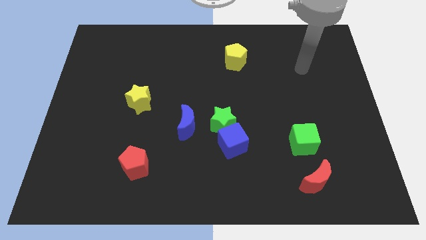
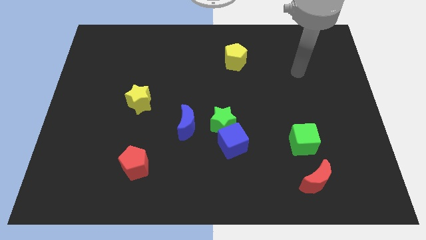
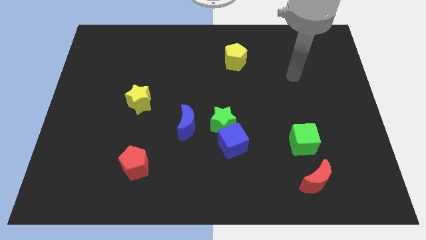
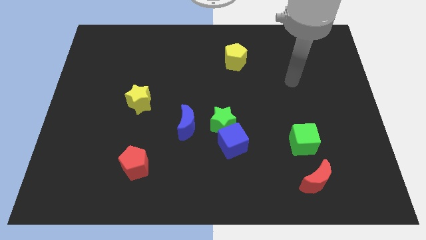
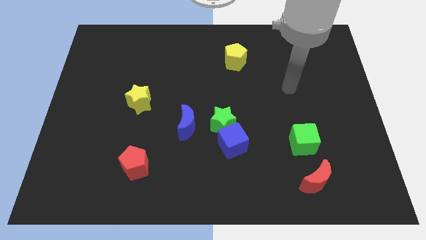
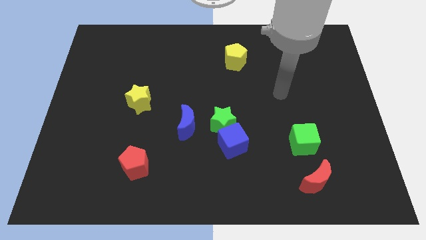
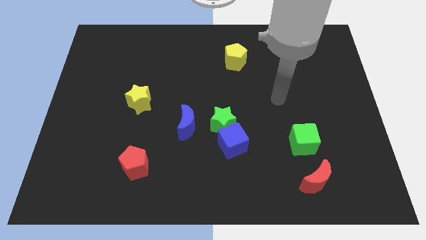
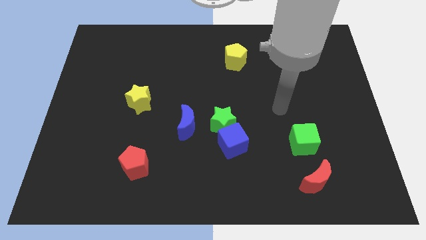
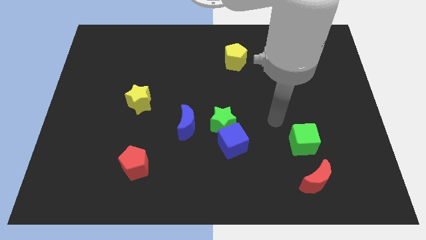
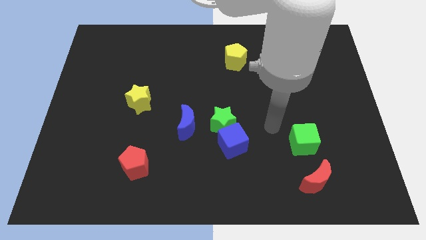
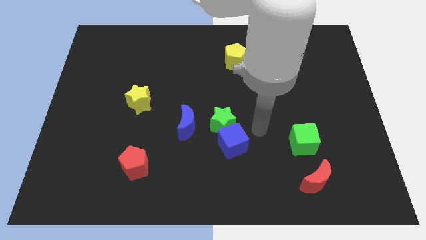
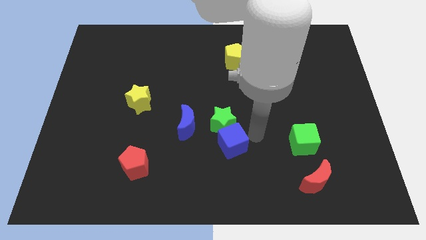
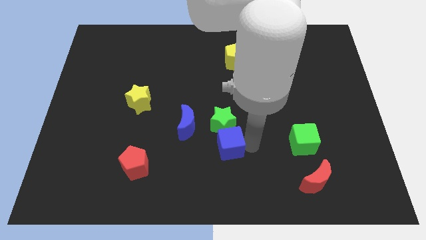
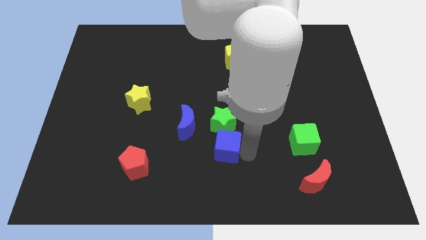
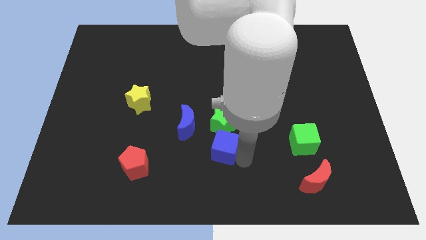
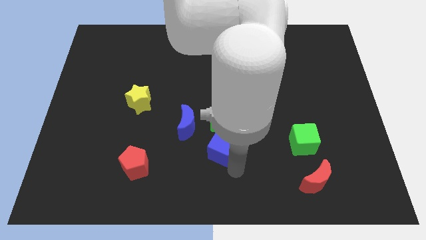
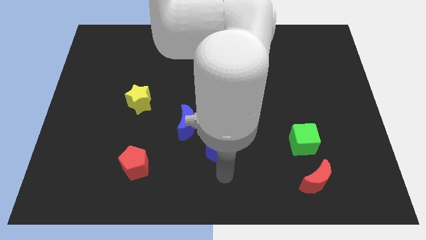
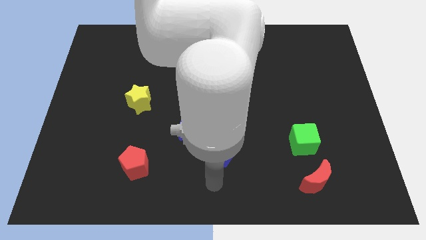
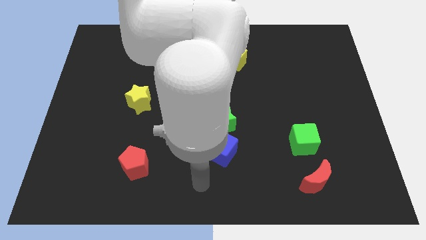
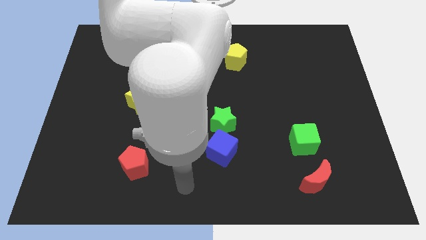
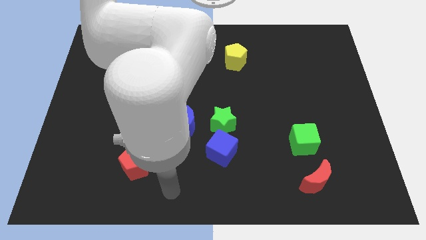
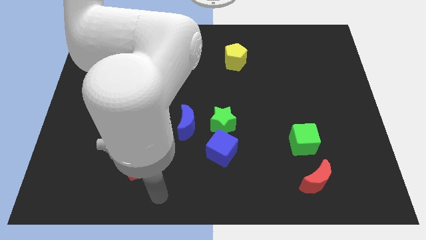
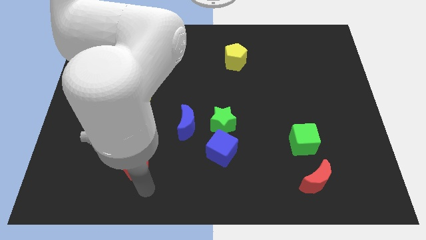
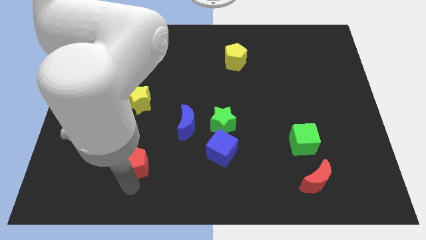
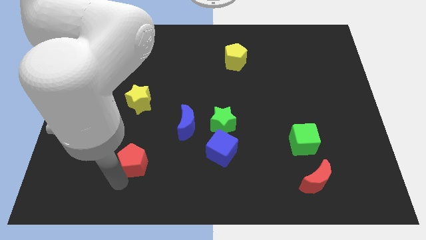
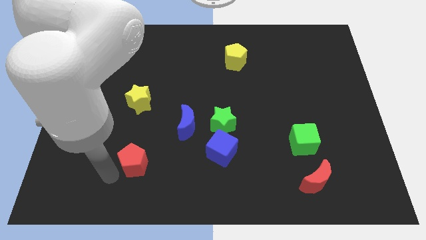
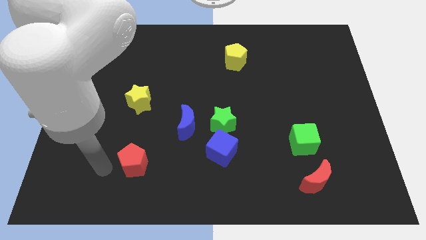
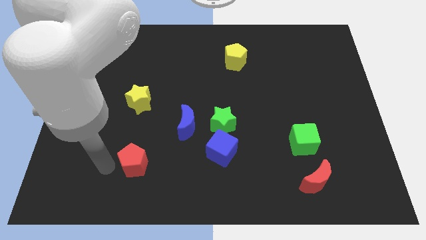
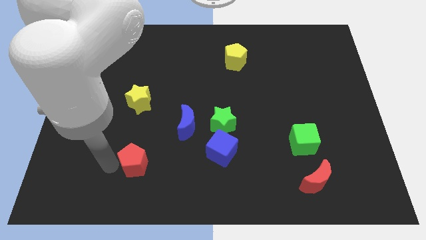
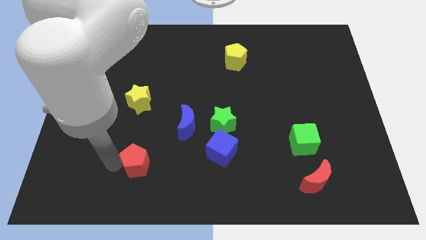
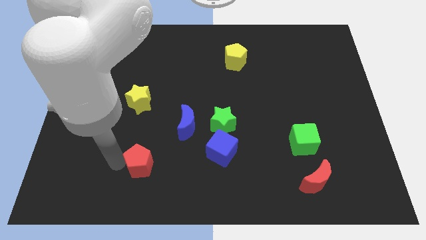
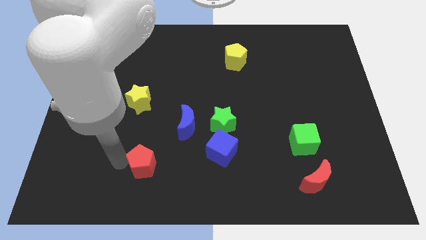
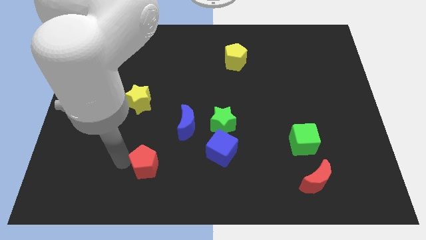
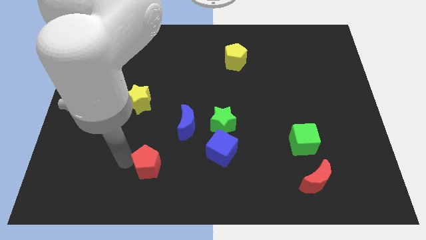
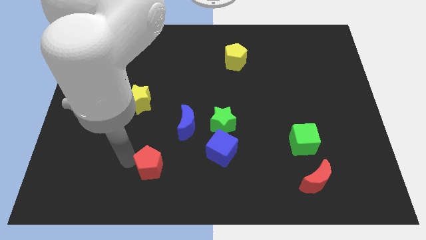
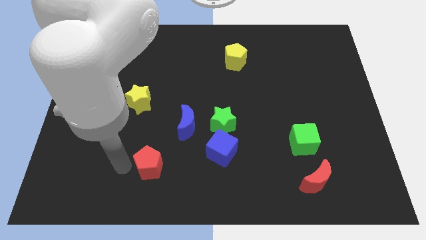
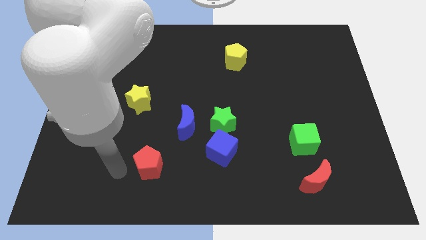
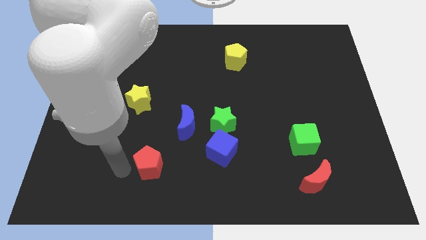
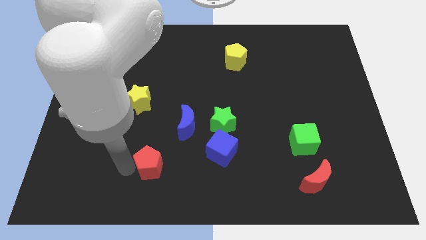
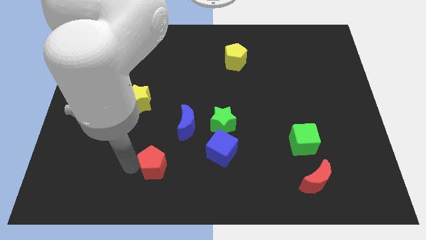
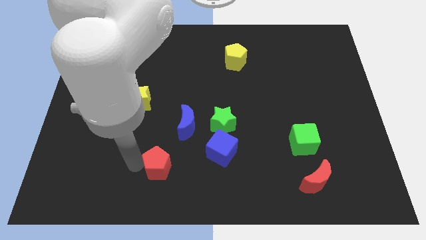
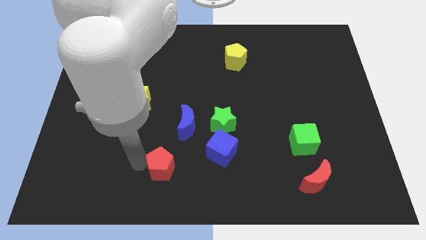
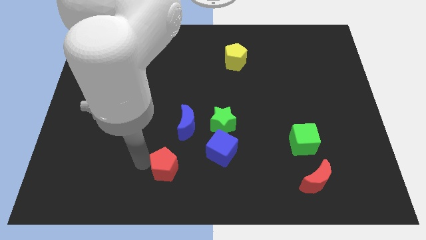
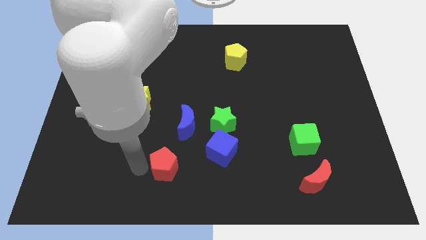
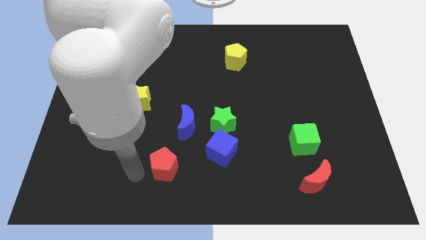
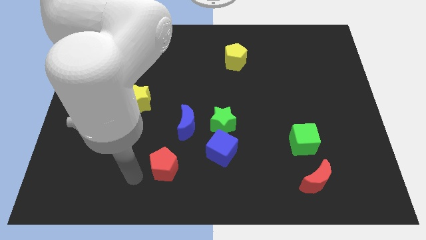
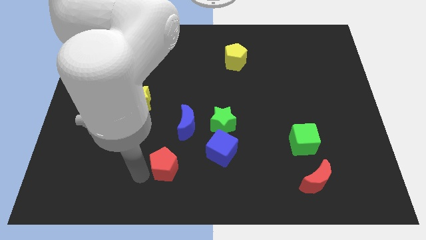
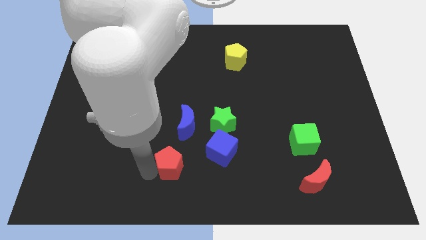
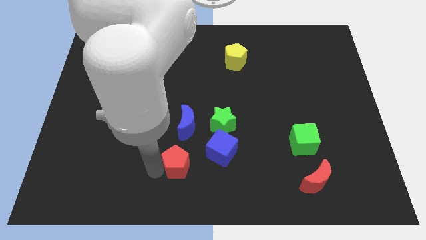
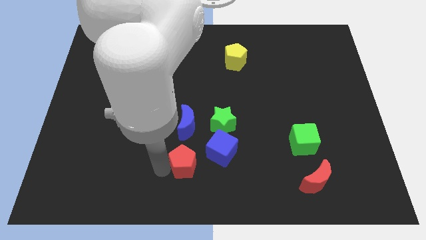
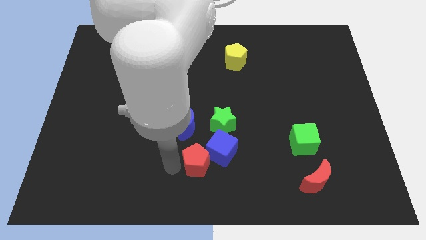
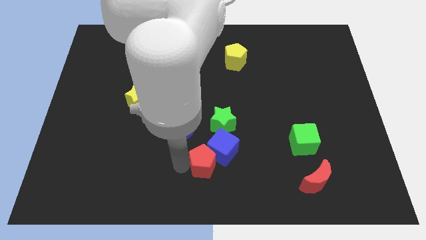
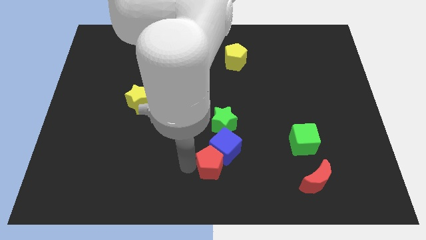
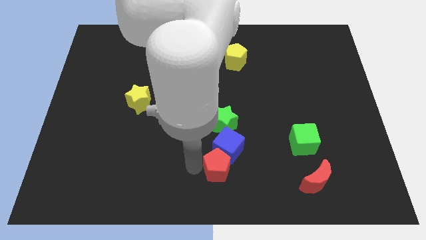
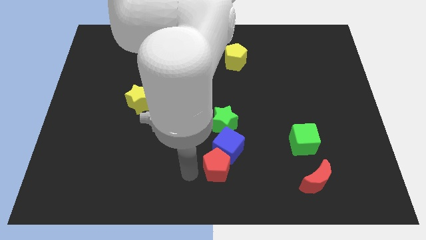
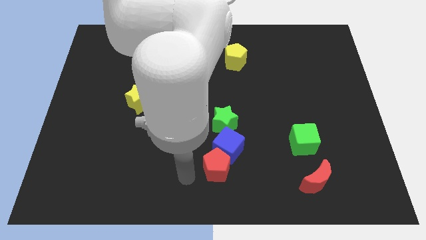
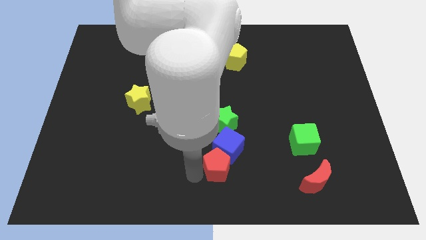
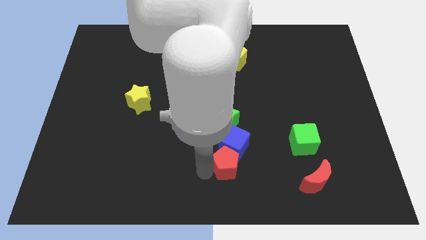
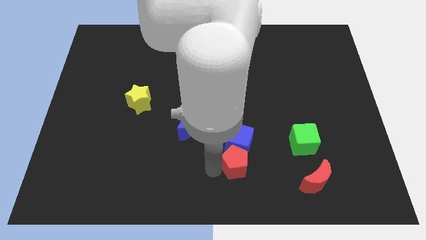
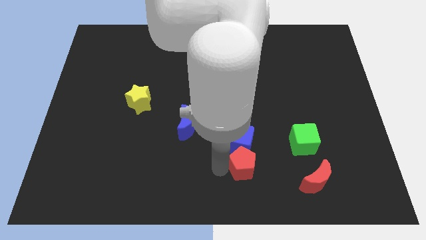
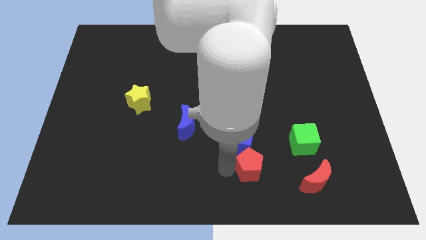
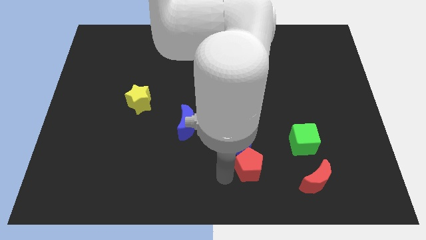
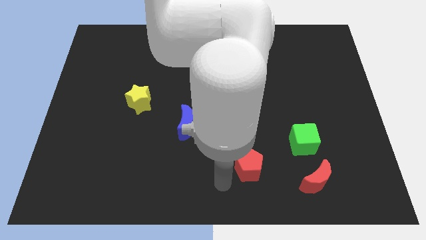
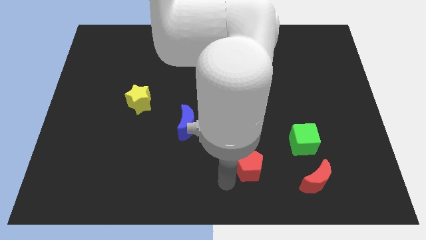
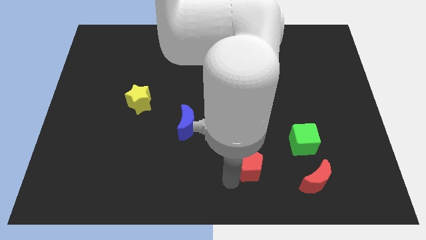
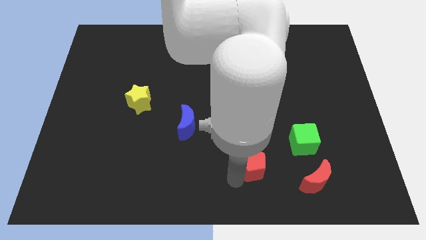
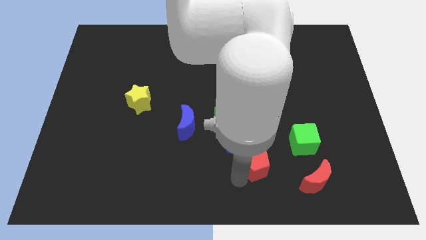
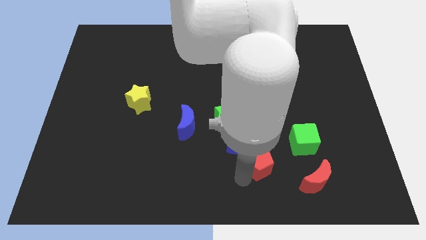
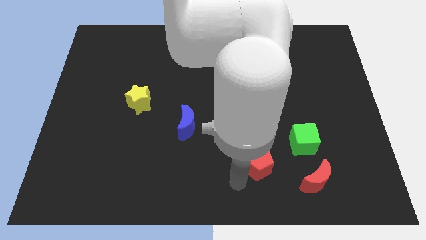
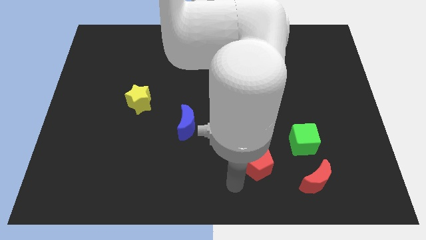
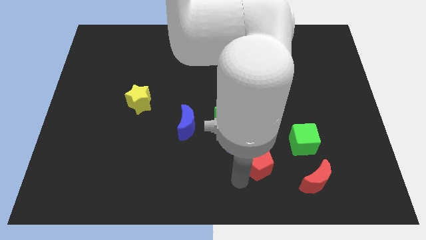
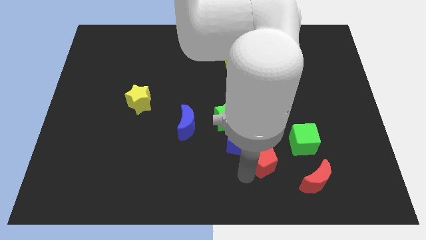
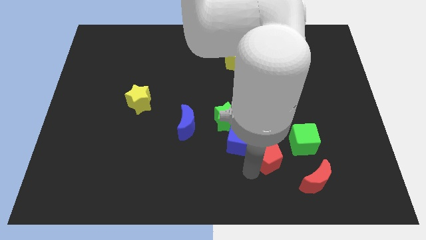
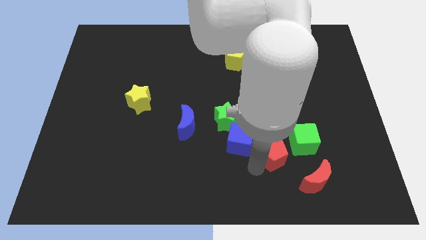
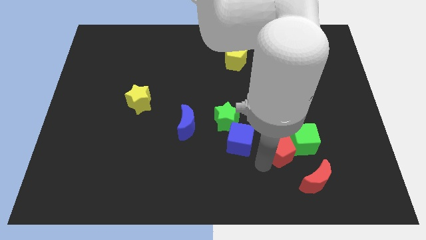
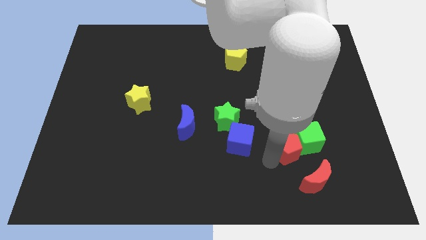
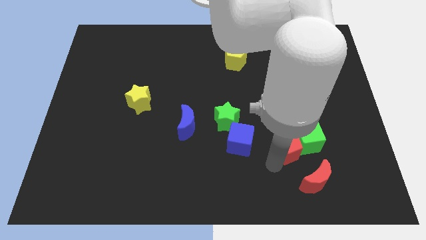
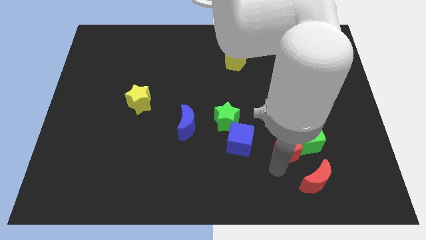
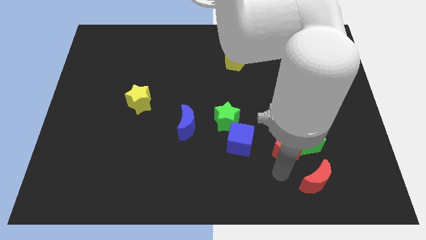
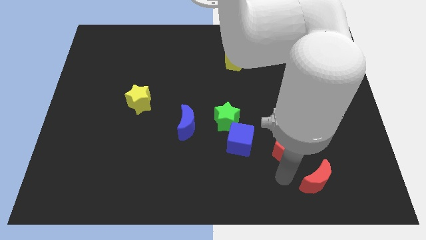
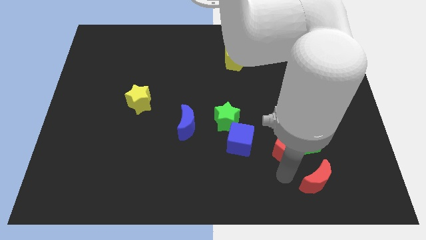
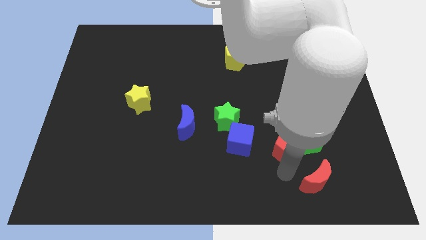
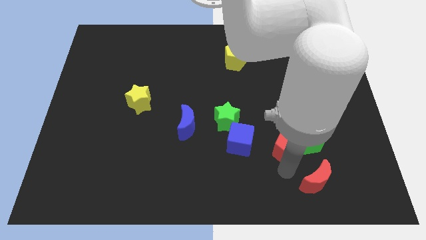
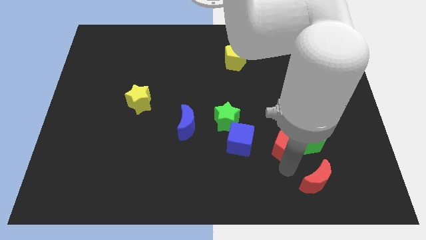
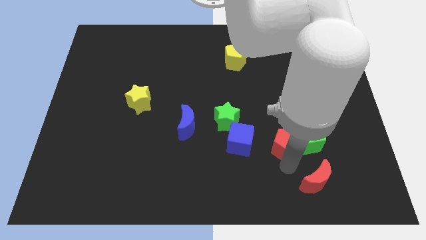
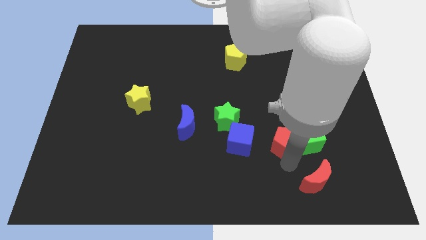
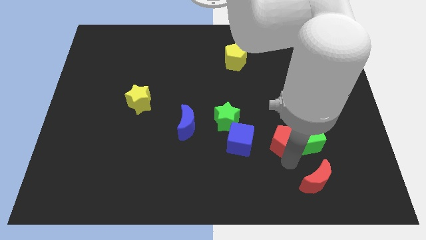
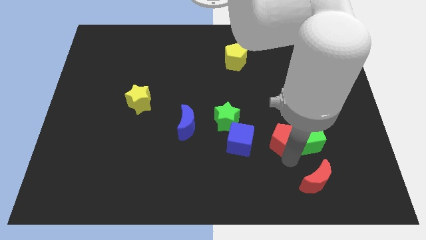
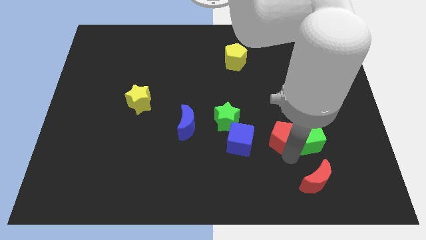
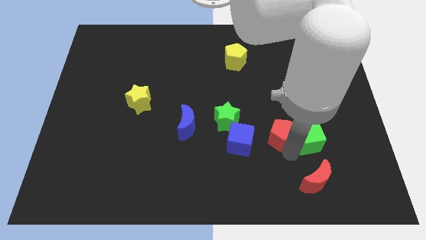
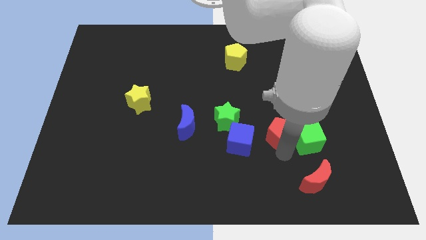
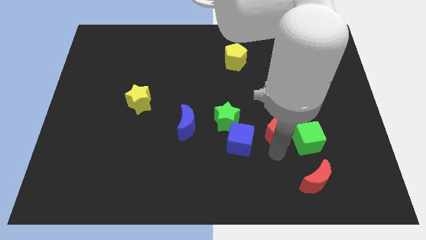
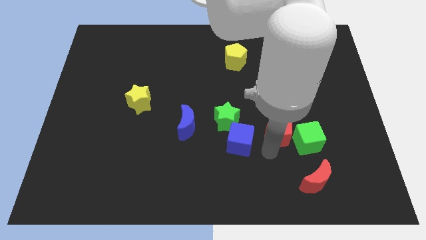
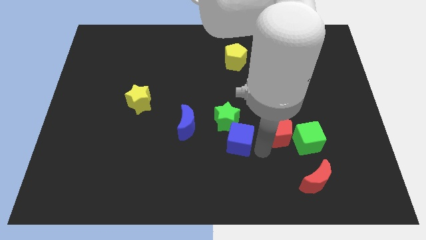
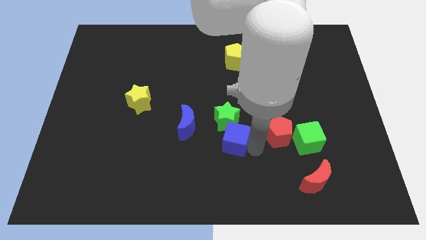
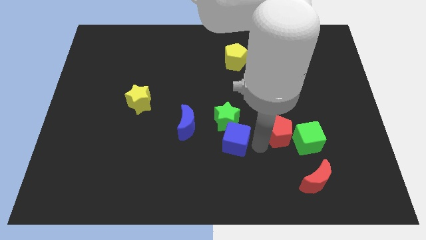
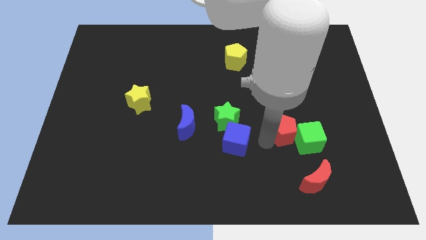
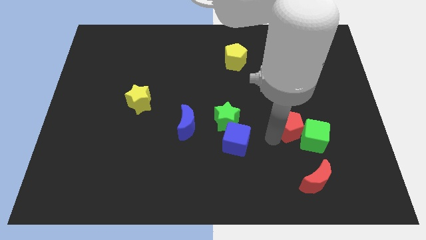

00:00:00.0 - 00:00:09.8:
move the red pentagon to the top side of the red moon
